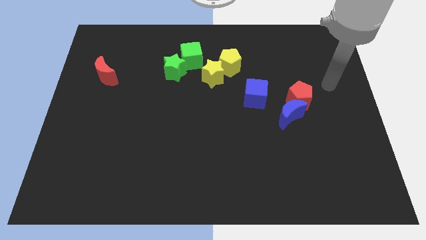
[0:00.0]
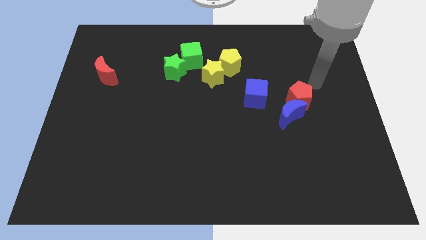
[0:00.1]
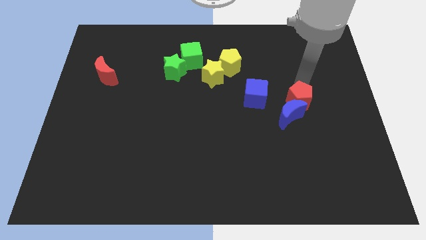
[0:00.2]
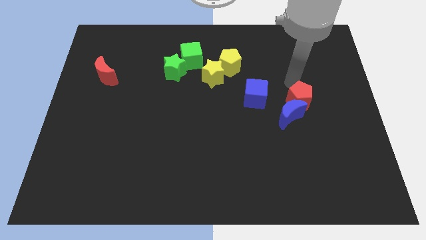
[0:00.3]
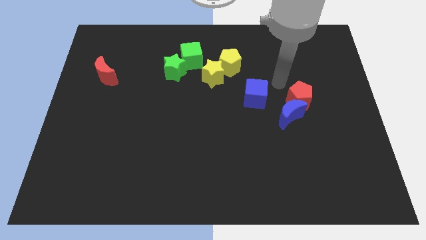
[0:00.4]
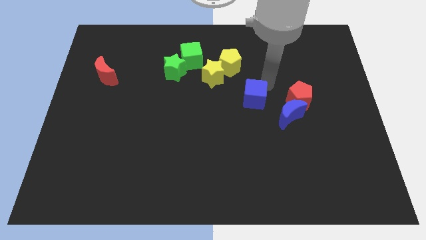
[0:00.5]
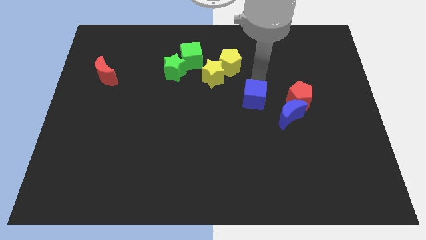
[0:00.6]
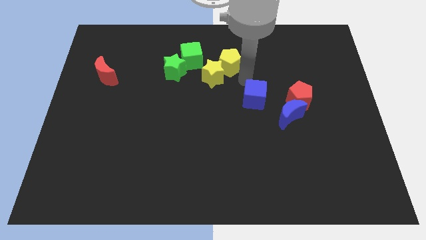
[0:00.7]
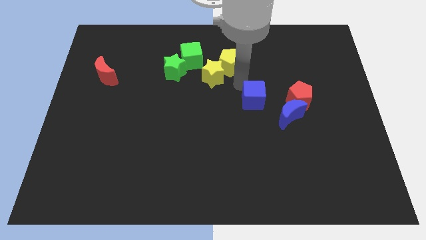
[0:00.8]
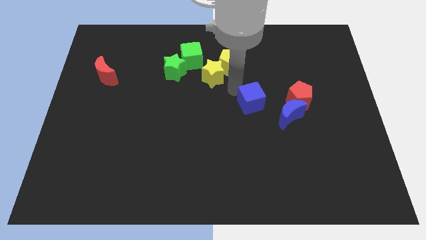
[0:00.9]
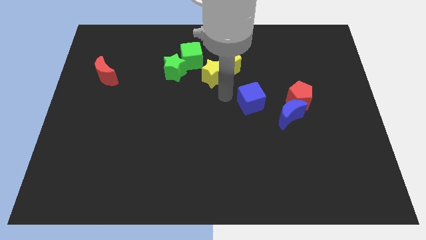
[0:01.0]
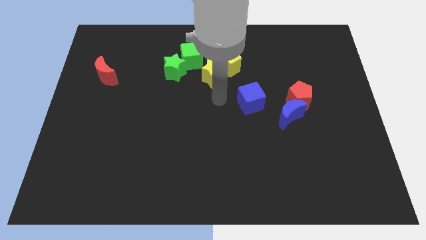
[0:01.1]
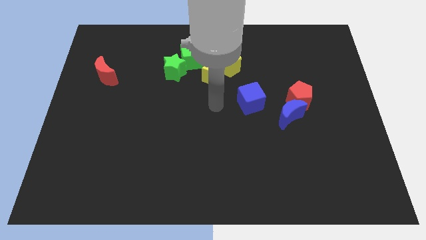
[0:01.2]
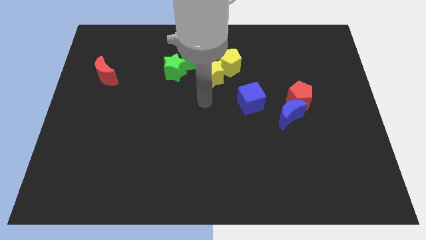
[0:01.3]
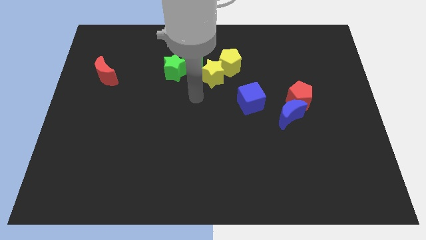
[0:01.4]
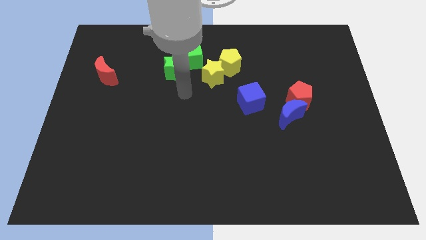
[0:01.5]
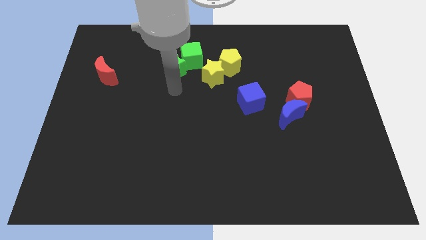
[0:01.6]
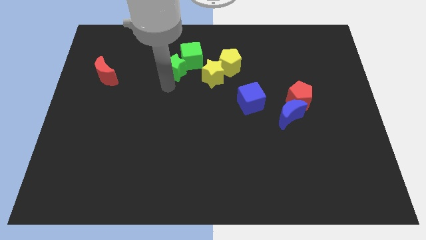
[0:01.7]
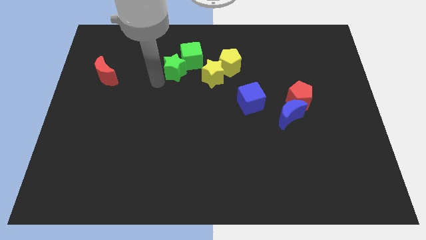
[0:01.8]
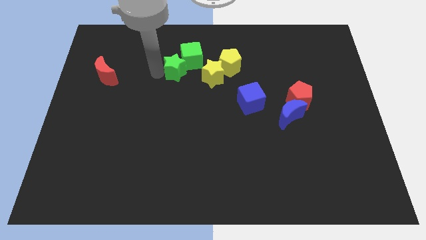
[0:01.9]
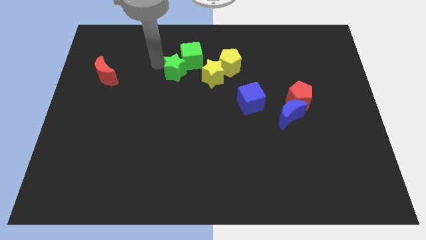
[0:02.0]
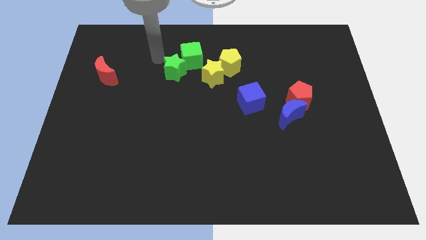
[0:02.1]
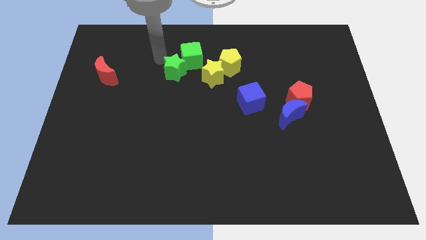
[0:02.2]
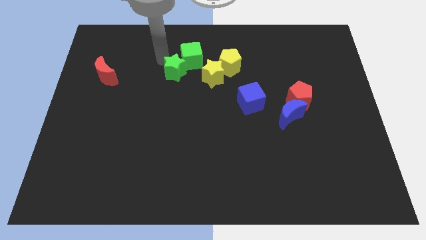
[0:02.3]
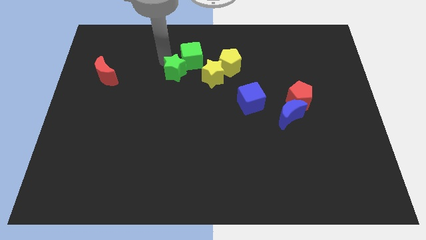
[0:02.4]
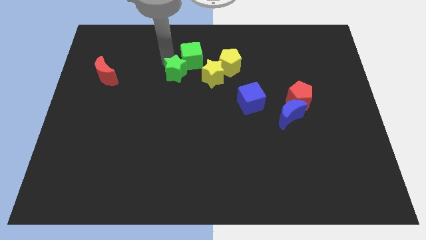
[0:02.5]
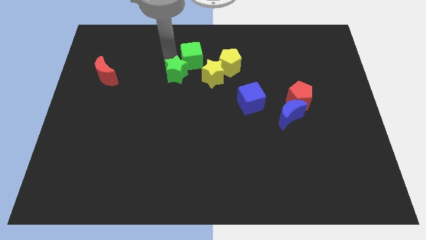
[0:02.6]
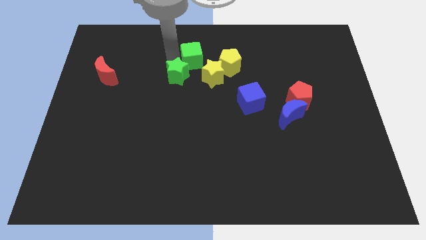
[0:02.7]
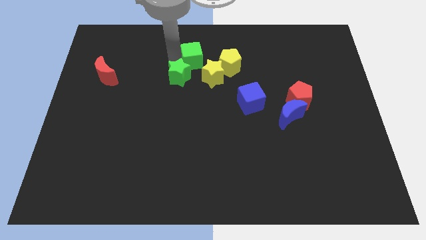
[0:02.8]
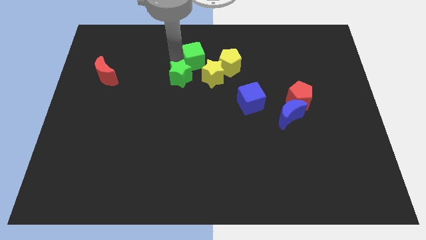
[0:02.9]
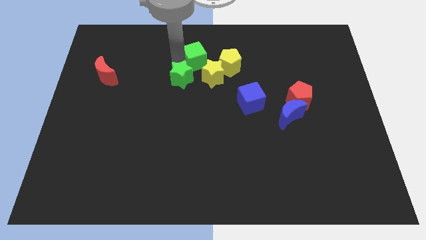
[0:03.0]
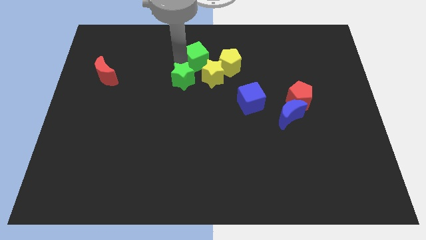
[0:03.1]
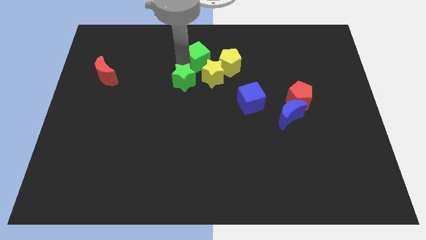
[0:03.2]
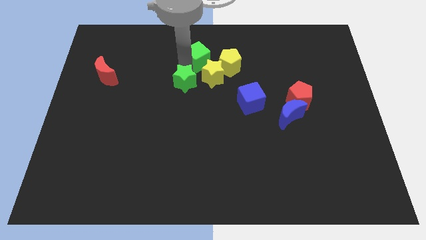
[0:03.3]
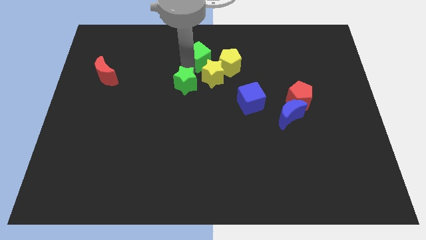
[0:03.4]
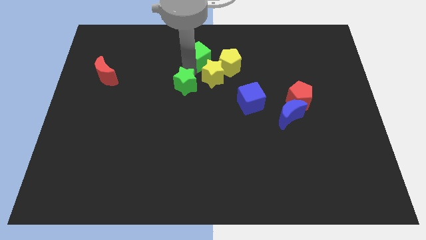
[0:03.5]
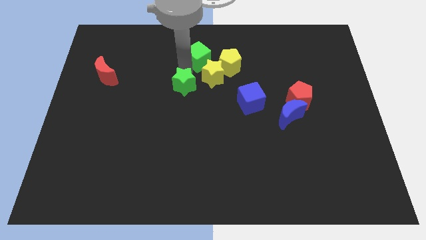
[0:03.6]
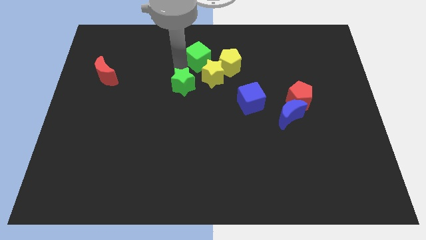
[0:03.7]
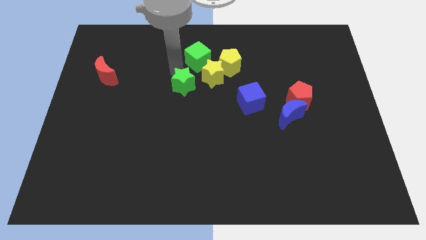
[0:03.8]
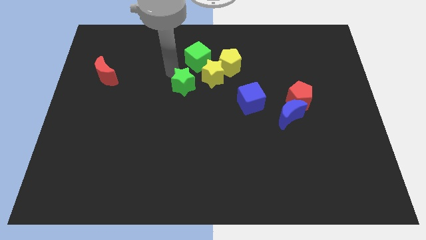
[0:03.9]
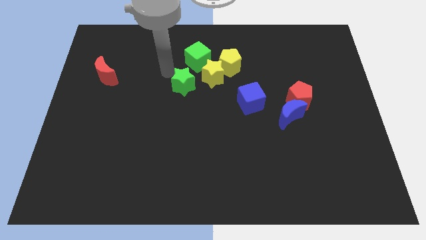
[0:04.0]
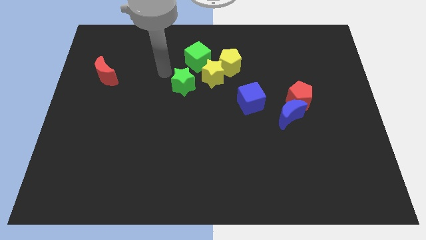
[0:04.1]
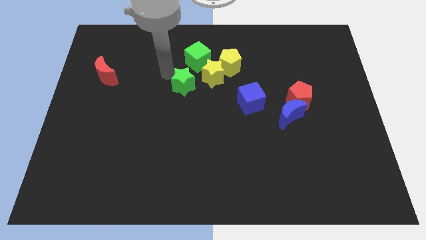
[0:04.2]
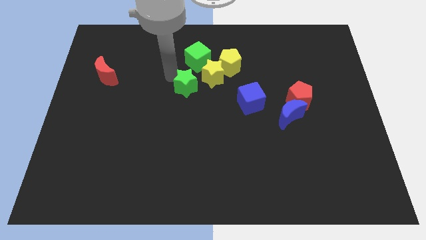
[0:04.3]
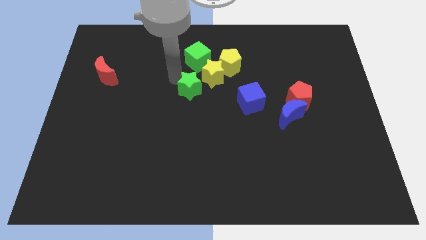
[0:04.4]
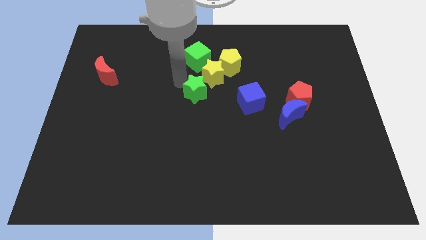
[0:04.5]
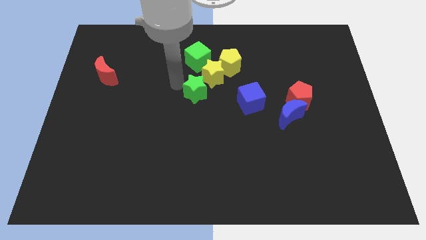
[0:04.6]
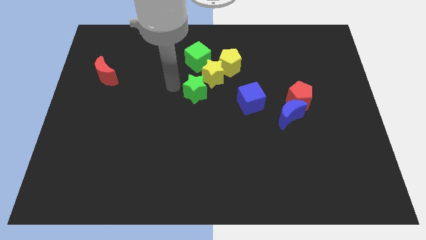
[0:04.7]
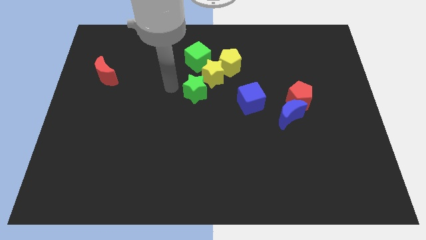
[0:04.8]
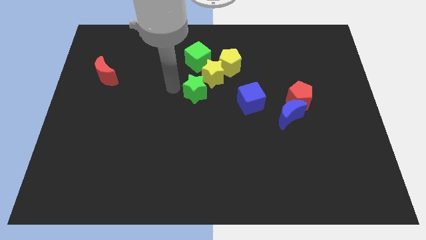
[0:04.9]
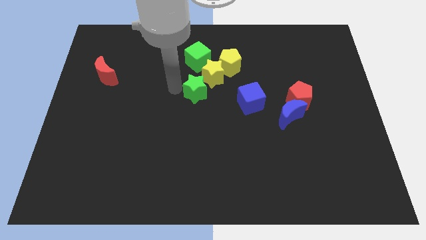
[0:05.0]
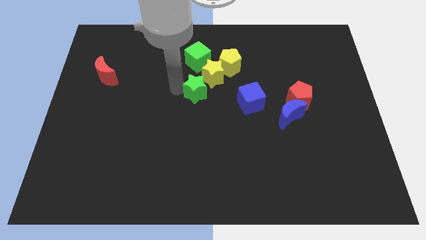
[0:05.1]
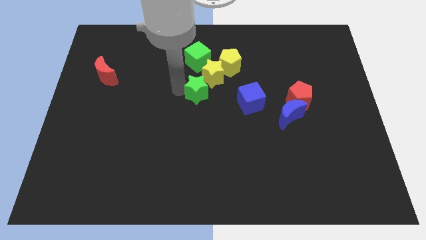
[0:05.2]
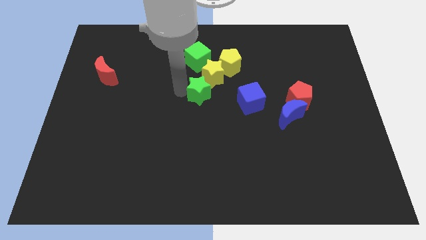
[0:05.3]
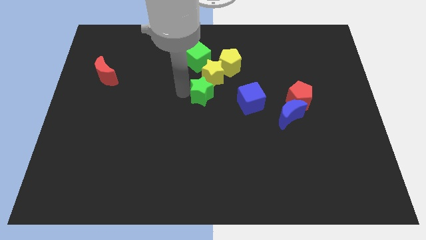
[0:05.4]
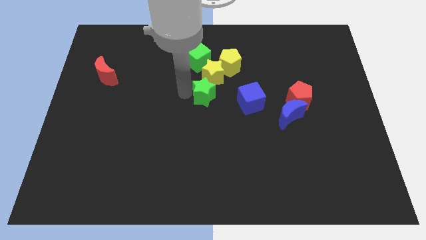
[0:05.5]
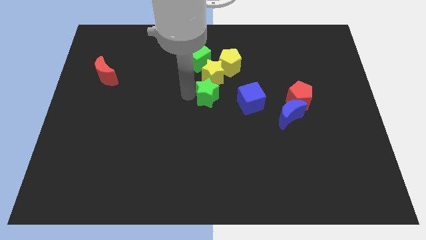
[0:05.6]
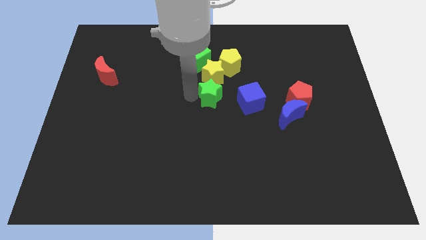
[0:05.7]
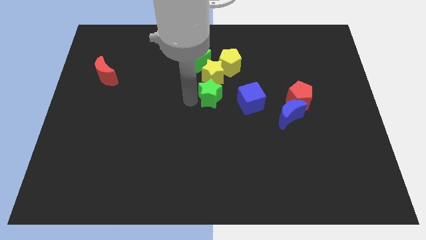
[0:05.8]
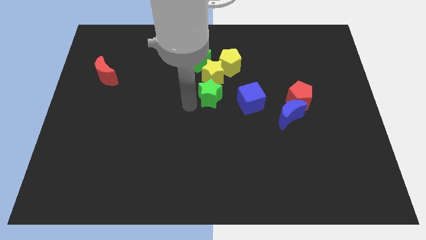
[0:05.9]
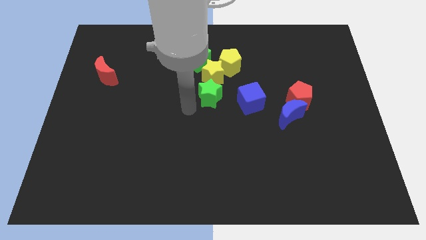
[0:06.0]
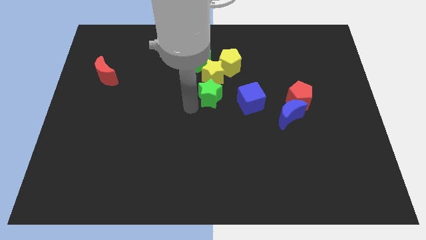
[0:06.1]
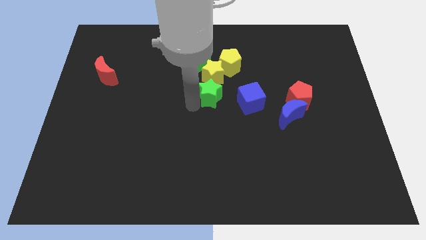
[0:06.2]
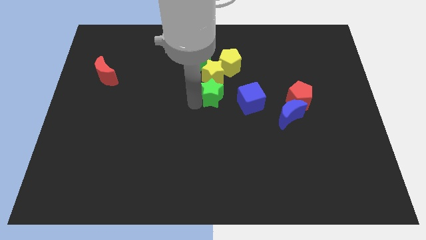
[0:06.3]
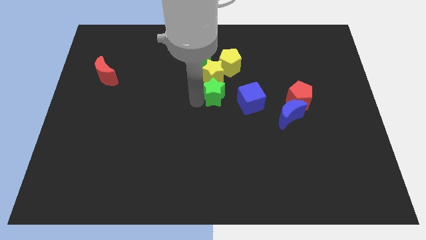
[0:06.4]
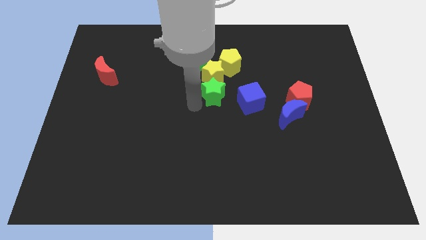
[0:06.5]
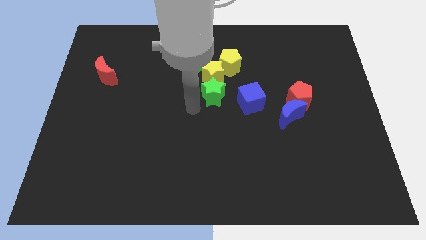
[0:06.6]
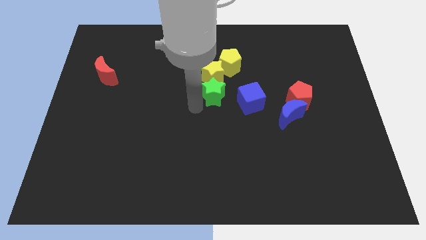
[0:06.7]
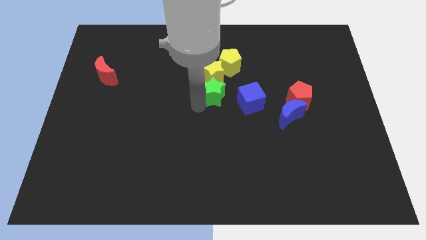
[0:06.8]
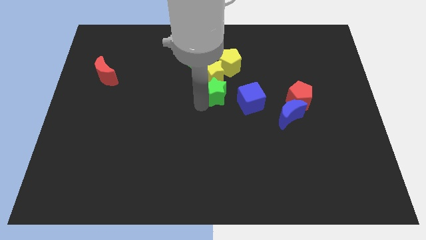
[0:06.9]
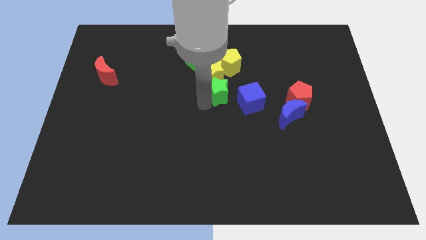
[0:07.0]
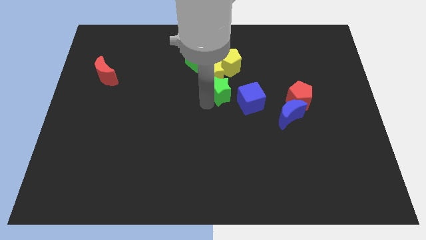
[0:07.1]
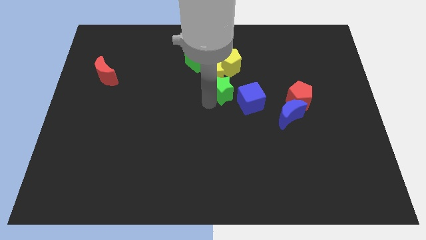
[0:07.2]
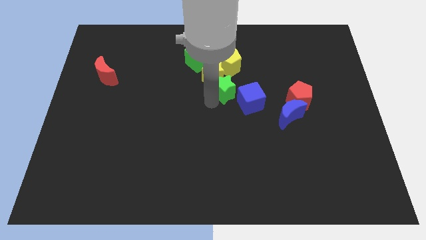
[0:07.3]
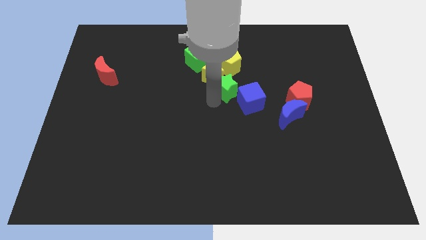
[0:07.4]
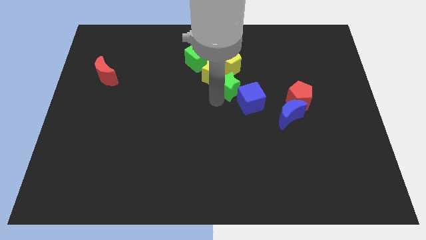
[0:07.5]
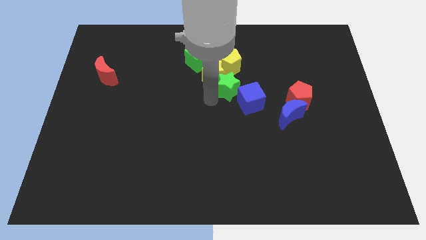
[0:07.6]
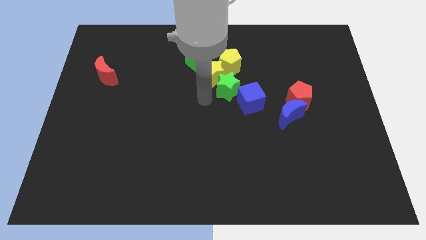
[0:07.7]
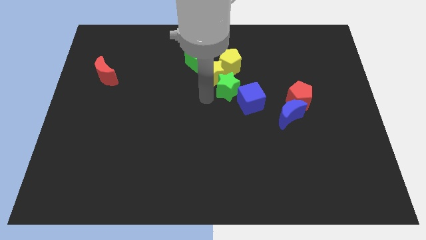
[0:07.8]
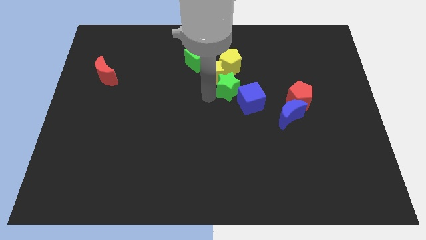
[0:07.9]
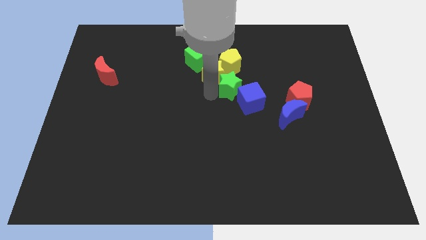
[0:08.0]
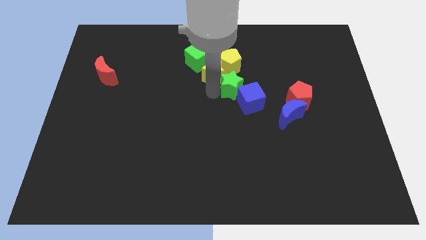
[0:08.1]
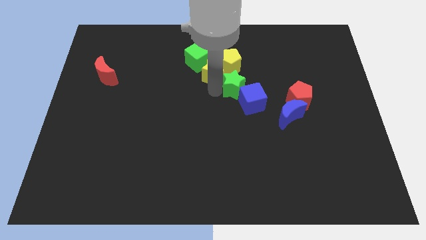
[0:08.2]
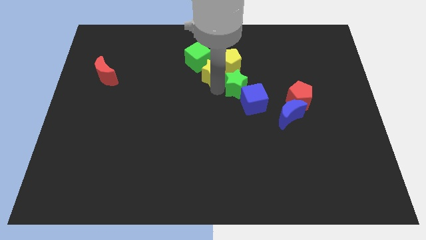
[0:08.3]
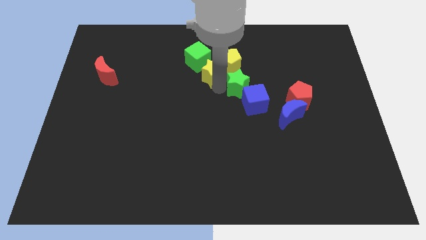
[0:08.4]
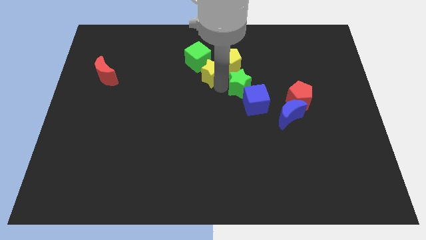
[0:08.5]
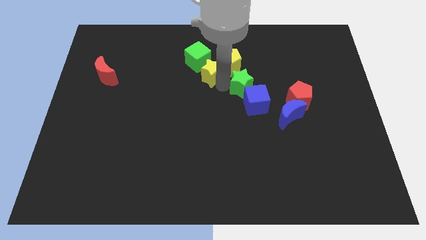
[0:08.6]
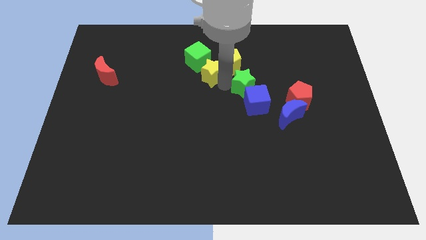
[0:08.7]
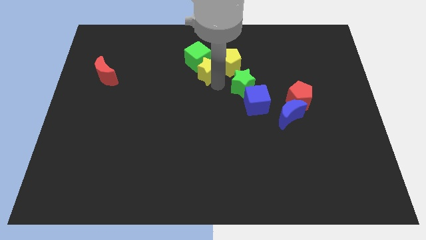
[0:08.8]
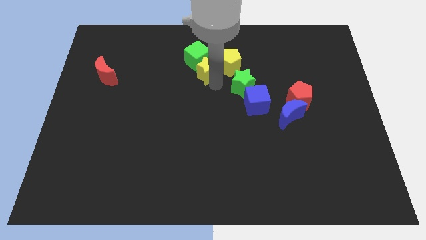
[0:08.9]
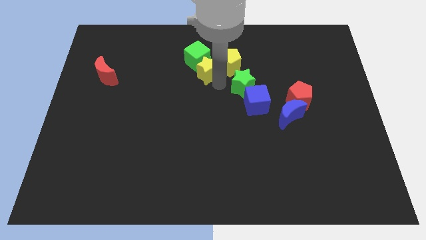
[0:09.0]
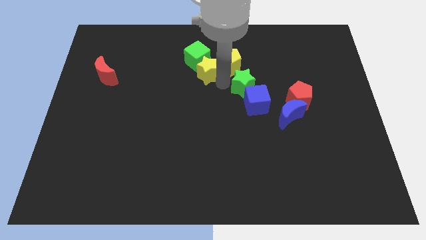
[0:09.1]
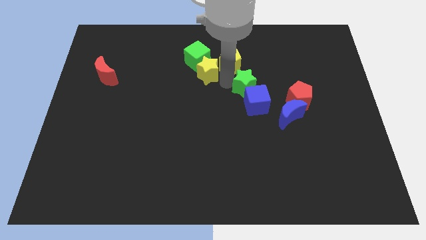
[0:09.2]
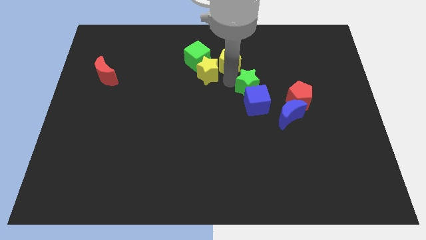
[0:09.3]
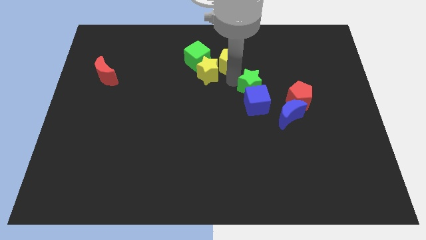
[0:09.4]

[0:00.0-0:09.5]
push the green star to the top right side of the blue cube
